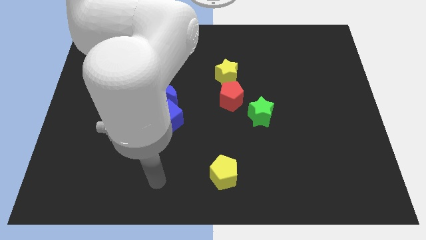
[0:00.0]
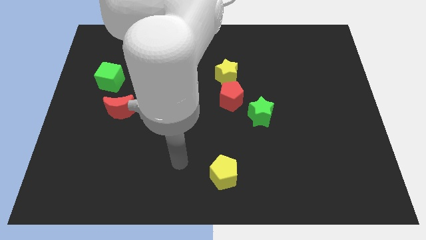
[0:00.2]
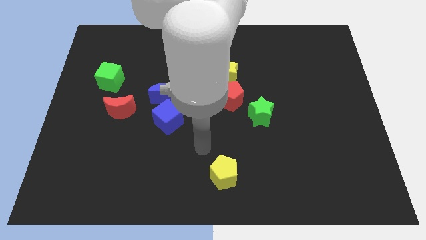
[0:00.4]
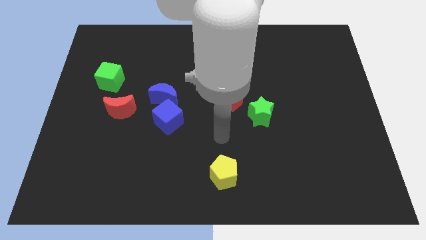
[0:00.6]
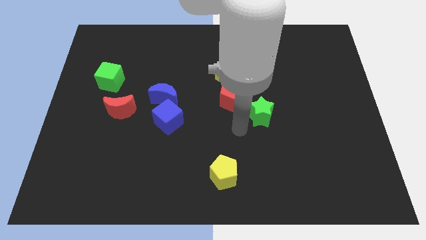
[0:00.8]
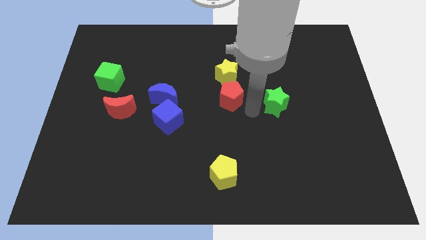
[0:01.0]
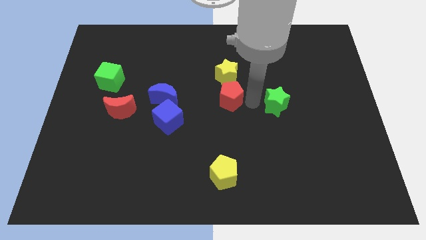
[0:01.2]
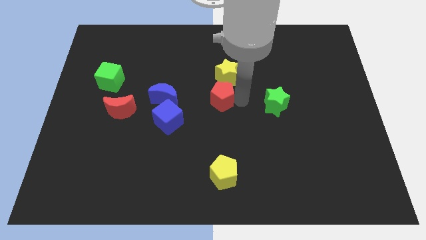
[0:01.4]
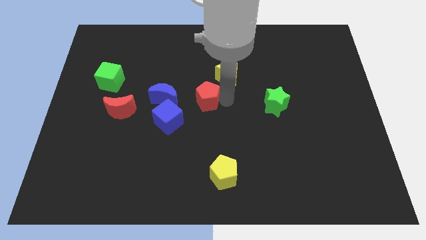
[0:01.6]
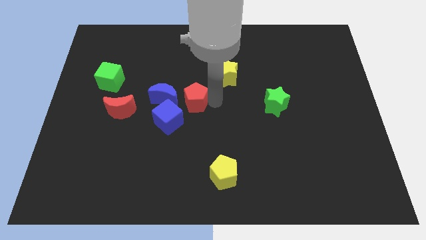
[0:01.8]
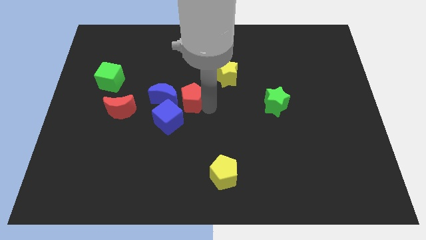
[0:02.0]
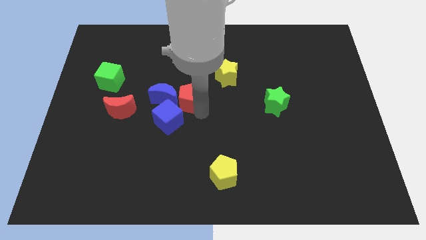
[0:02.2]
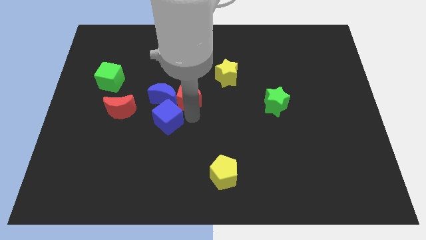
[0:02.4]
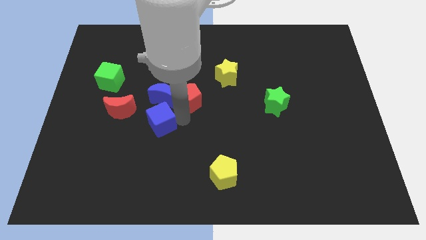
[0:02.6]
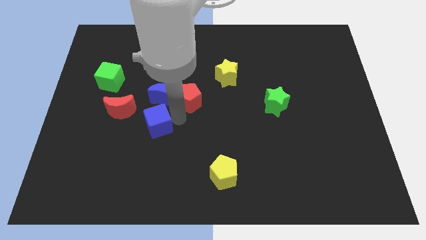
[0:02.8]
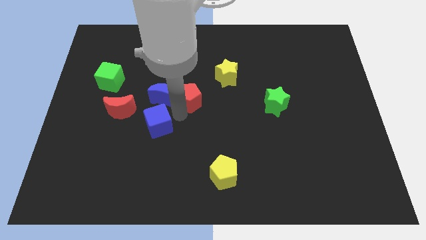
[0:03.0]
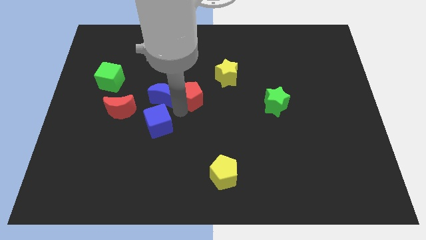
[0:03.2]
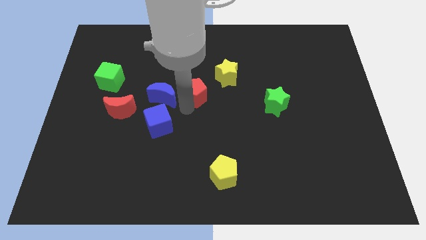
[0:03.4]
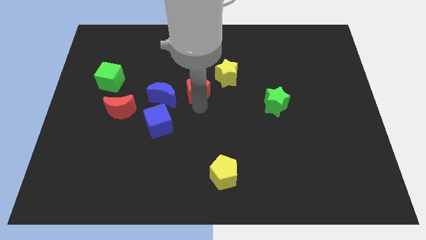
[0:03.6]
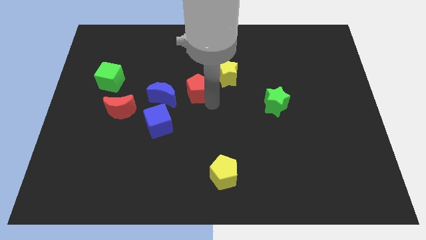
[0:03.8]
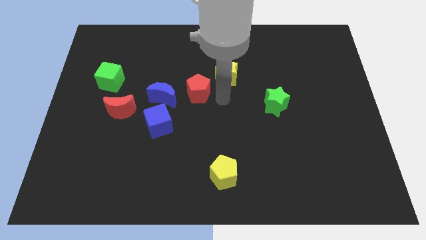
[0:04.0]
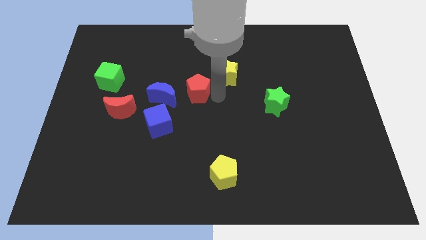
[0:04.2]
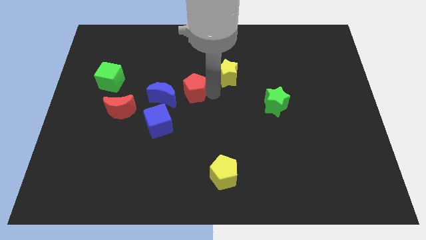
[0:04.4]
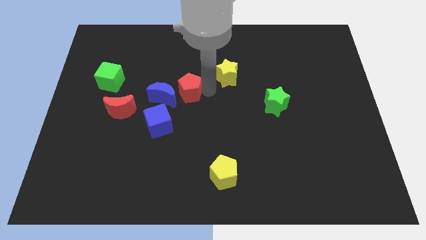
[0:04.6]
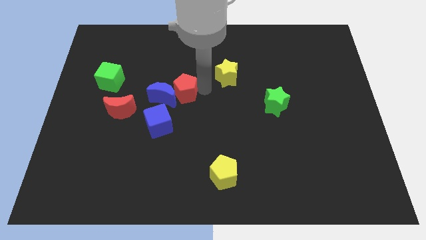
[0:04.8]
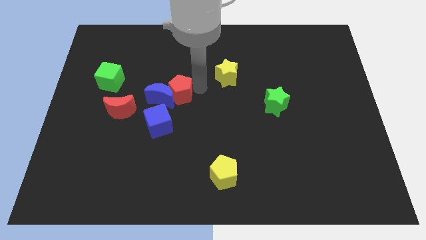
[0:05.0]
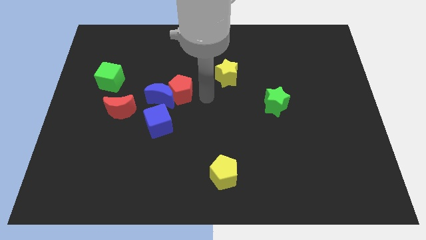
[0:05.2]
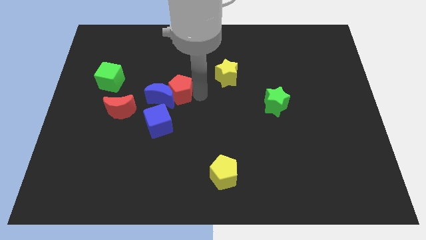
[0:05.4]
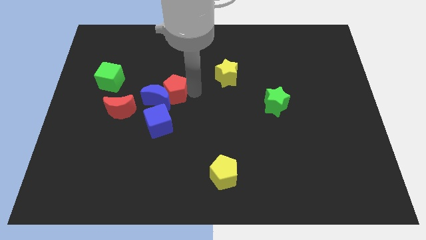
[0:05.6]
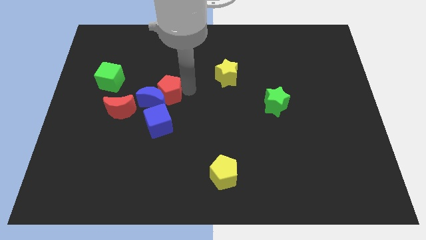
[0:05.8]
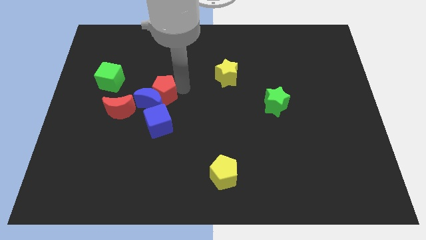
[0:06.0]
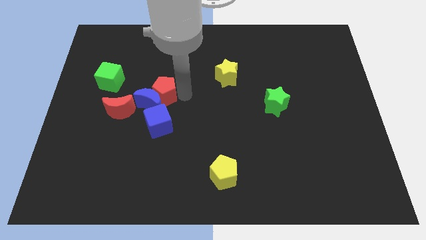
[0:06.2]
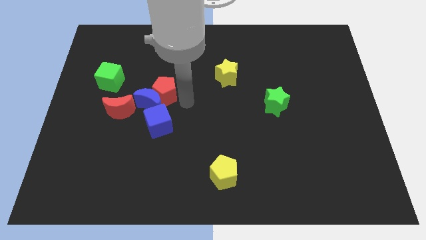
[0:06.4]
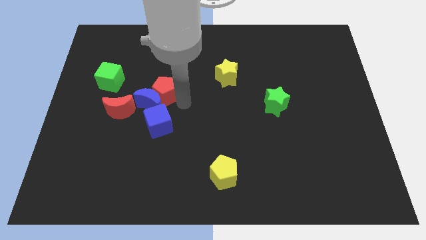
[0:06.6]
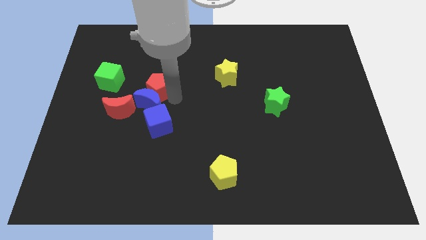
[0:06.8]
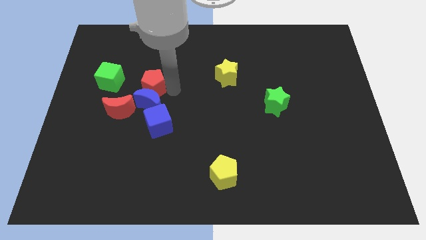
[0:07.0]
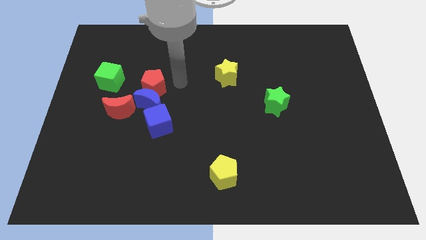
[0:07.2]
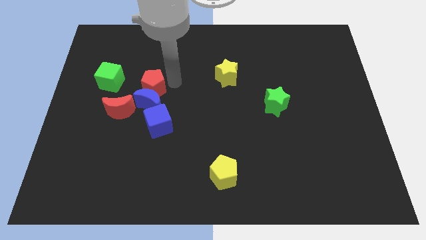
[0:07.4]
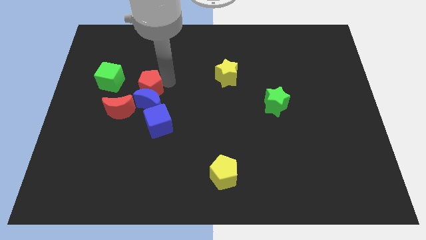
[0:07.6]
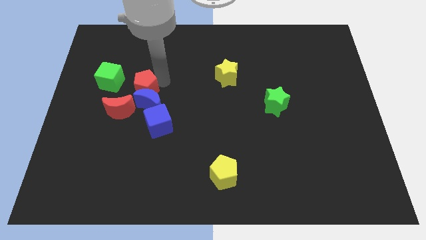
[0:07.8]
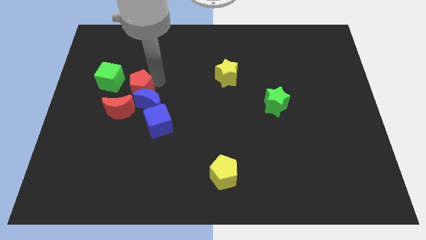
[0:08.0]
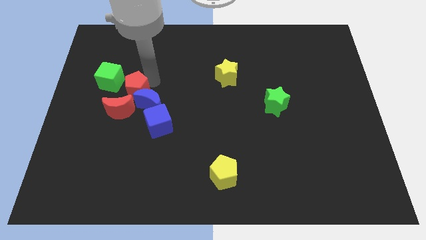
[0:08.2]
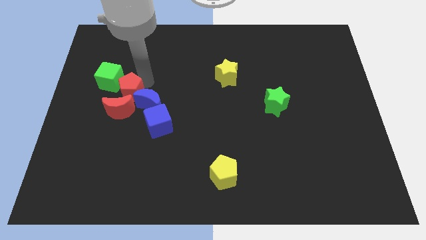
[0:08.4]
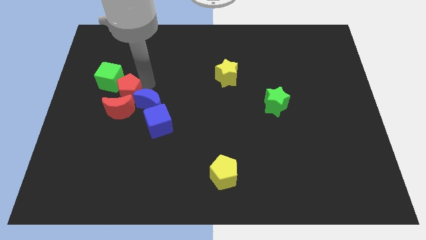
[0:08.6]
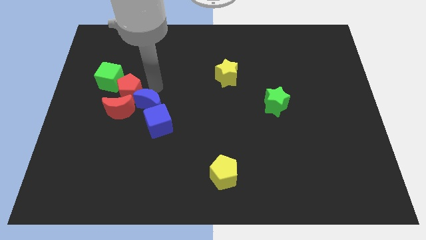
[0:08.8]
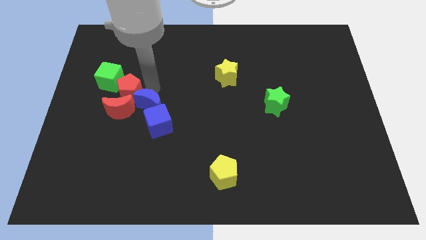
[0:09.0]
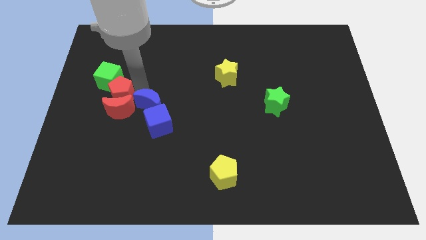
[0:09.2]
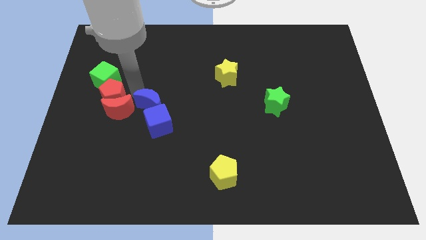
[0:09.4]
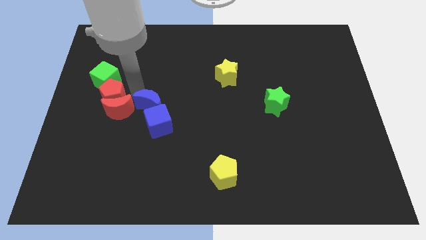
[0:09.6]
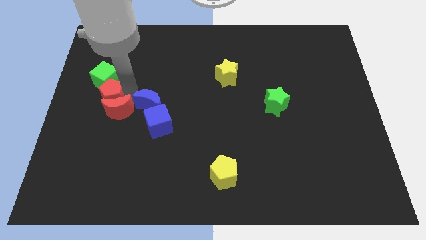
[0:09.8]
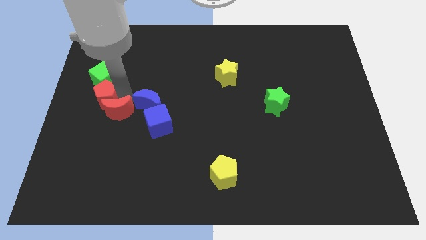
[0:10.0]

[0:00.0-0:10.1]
put the red pentagon to the left side of the board

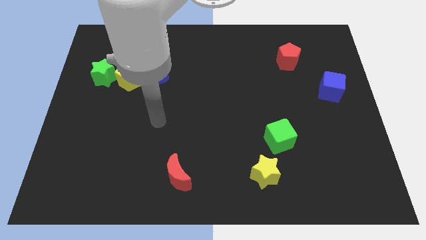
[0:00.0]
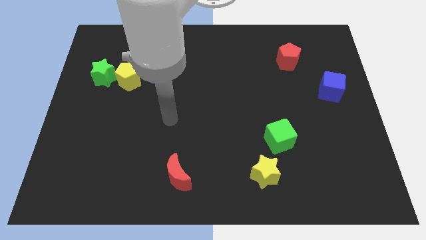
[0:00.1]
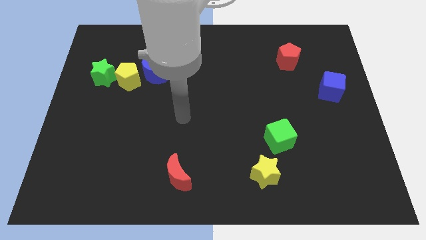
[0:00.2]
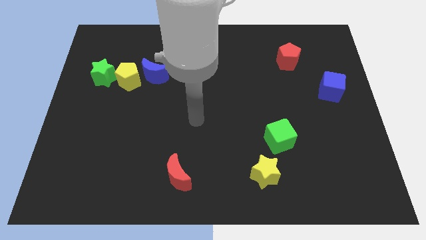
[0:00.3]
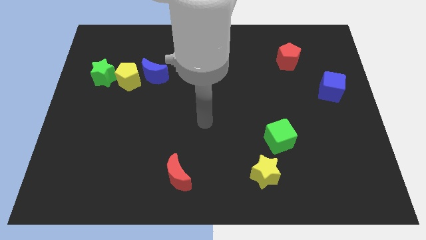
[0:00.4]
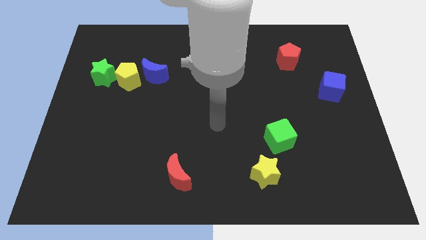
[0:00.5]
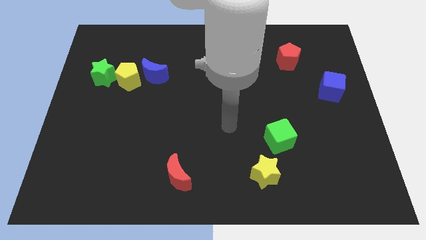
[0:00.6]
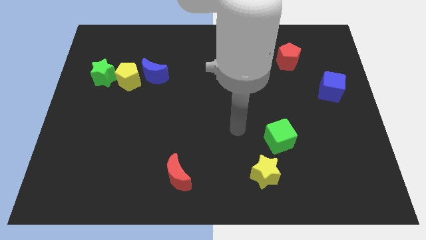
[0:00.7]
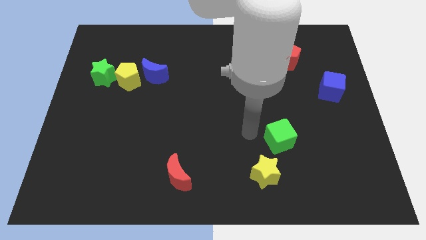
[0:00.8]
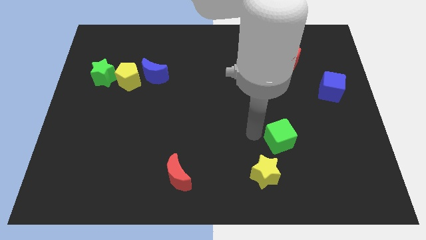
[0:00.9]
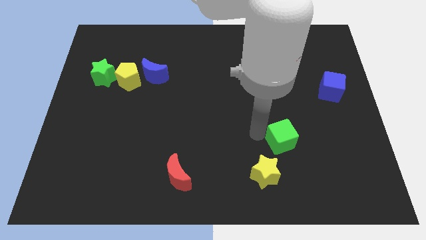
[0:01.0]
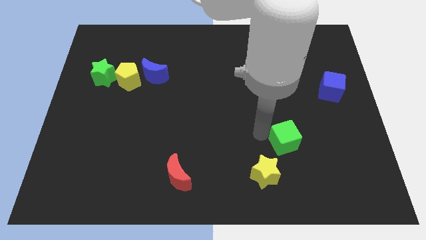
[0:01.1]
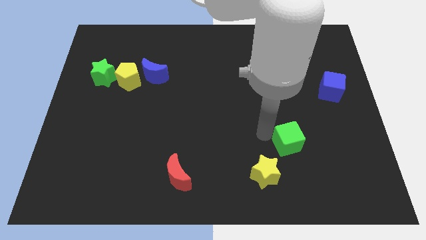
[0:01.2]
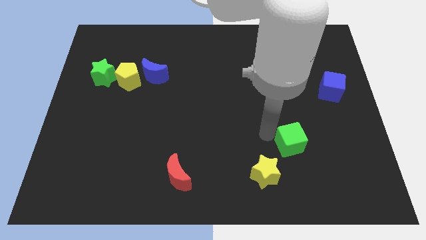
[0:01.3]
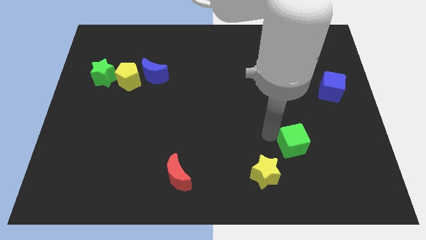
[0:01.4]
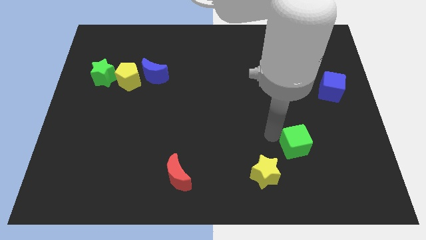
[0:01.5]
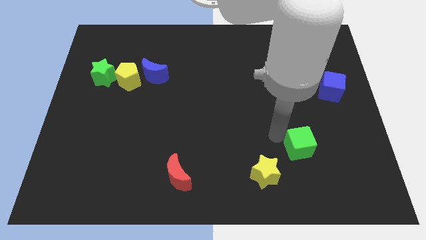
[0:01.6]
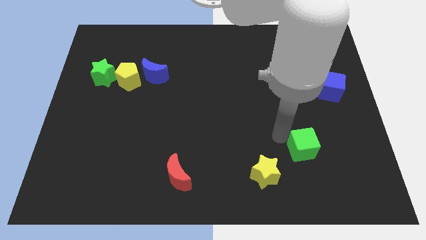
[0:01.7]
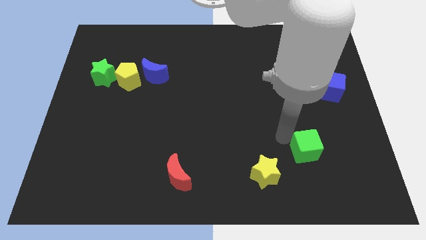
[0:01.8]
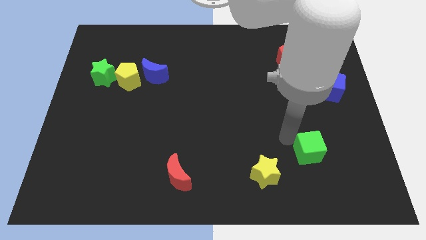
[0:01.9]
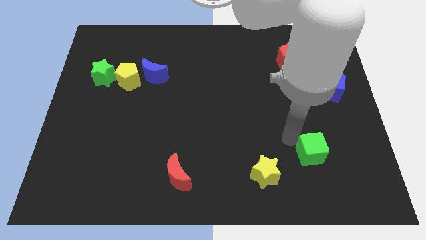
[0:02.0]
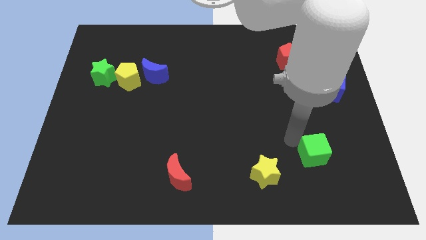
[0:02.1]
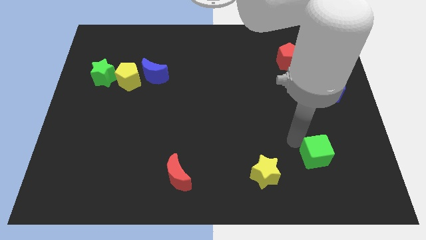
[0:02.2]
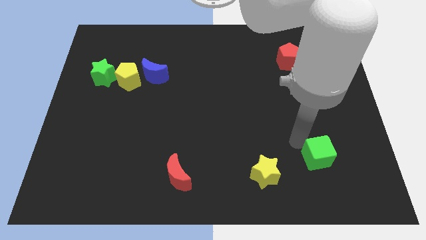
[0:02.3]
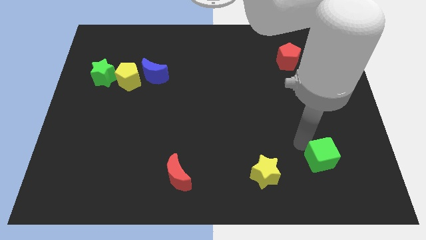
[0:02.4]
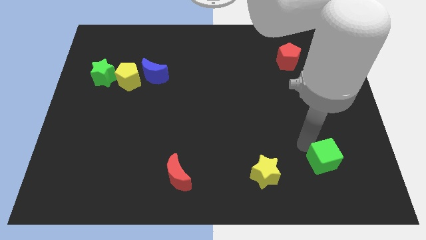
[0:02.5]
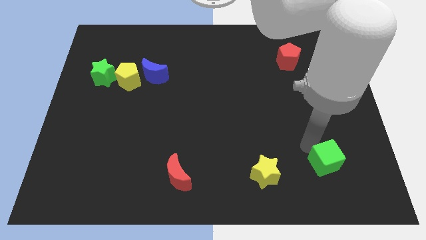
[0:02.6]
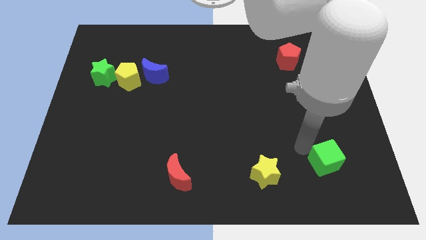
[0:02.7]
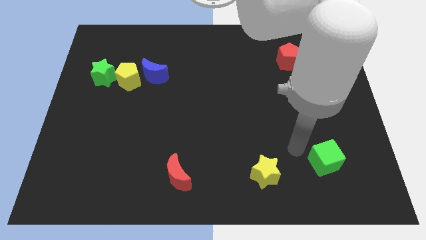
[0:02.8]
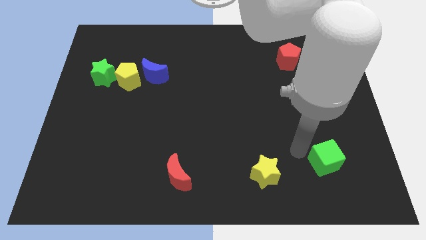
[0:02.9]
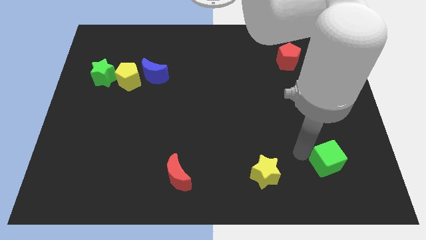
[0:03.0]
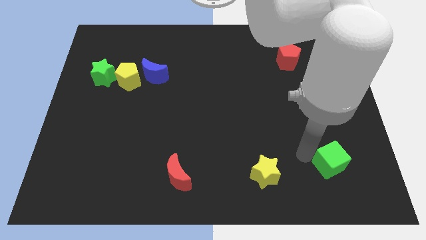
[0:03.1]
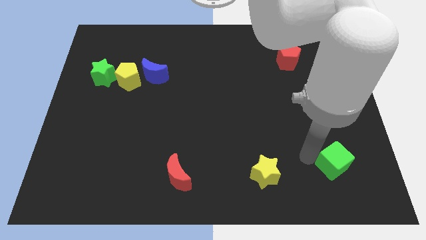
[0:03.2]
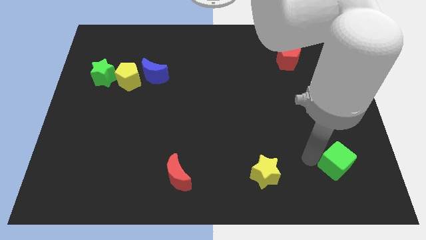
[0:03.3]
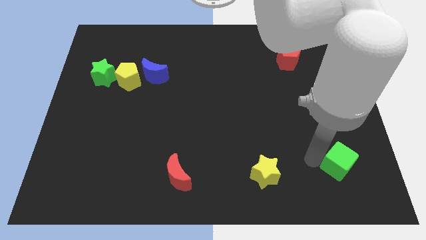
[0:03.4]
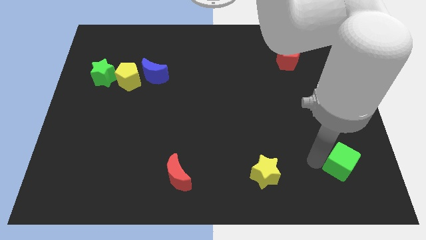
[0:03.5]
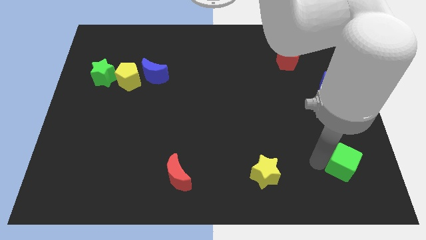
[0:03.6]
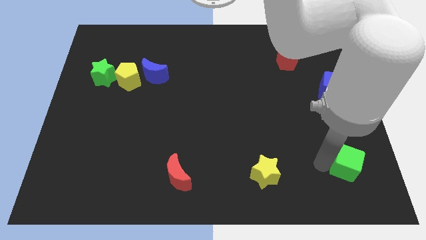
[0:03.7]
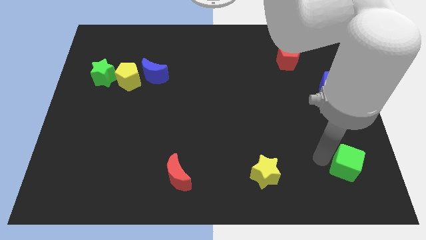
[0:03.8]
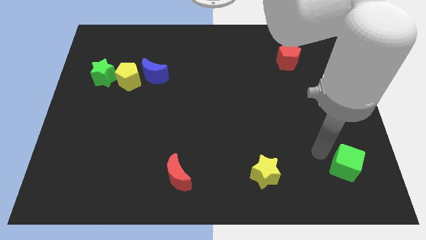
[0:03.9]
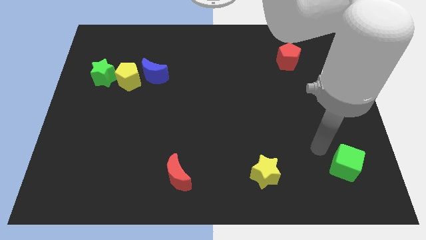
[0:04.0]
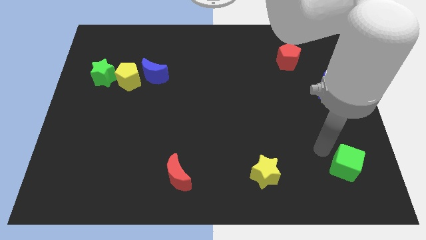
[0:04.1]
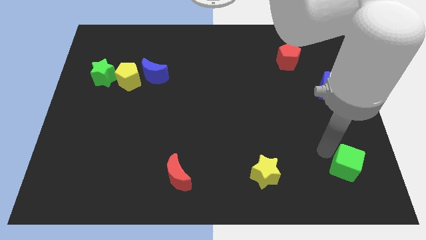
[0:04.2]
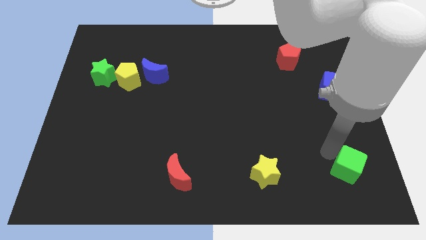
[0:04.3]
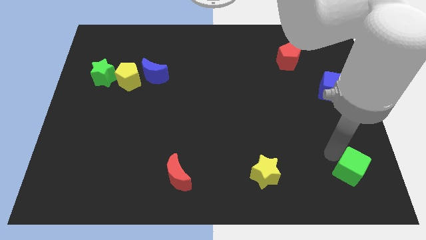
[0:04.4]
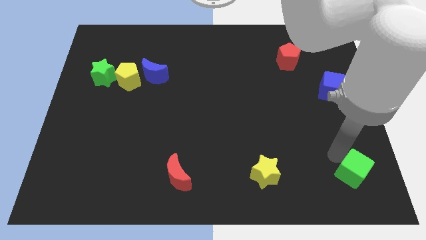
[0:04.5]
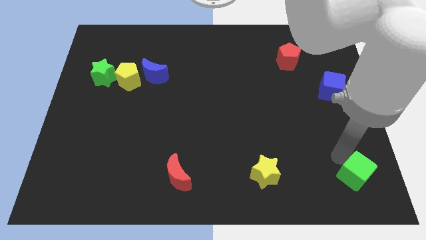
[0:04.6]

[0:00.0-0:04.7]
slide the green cube to the bottom right
